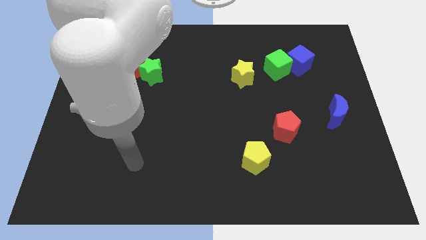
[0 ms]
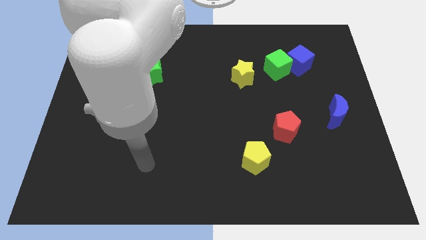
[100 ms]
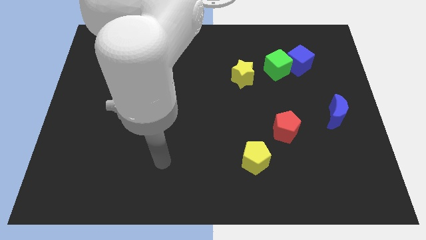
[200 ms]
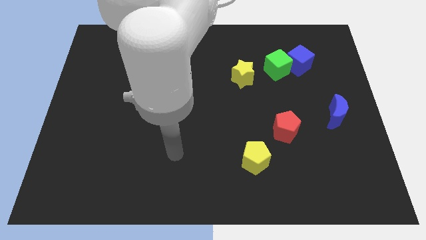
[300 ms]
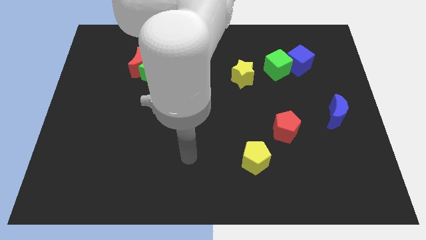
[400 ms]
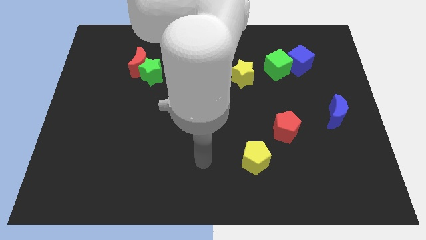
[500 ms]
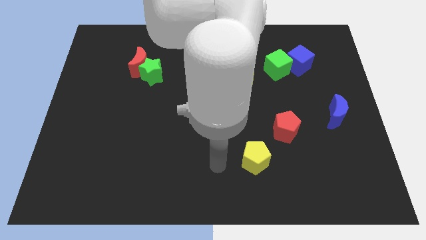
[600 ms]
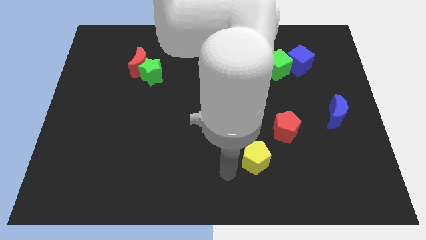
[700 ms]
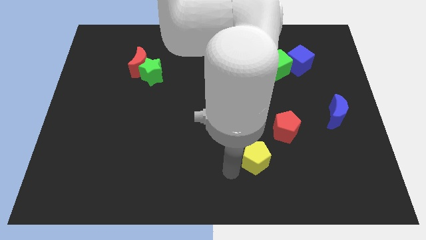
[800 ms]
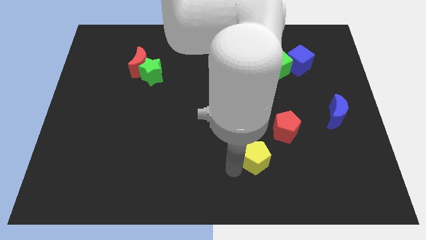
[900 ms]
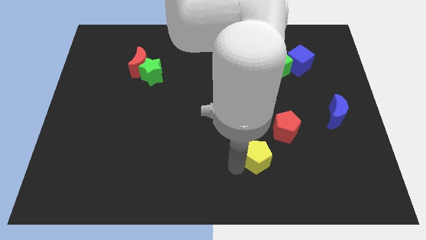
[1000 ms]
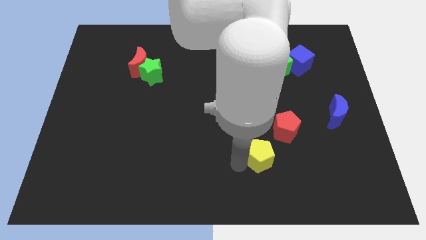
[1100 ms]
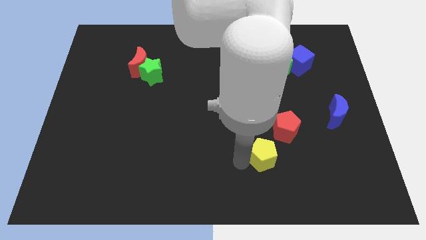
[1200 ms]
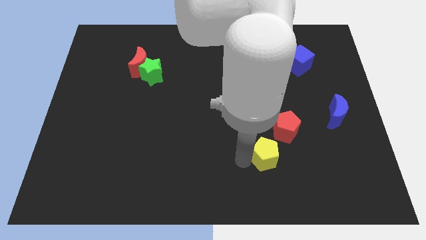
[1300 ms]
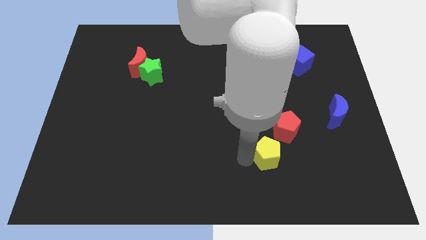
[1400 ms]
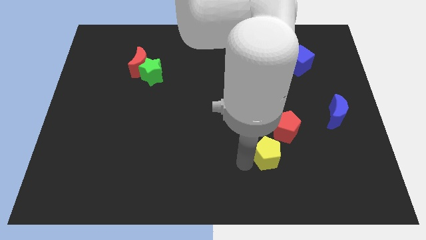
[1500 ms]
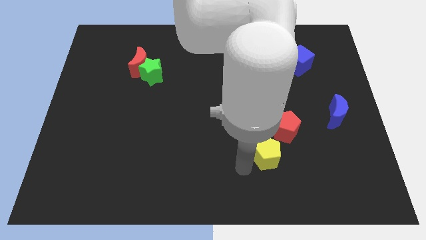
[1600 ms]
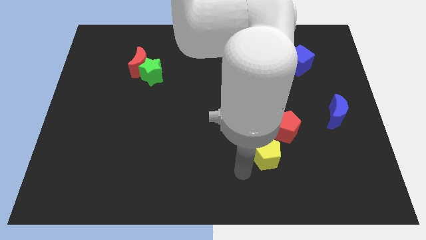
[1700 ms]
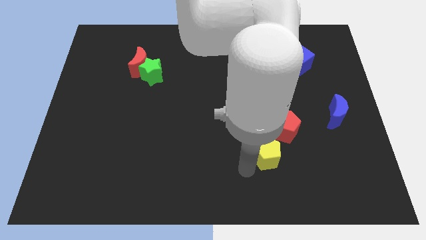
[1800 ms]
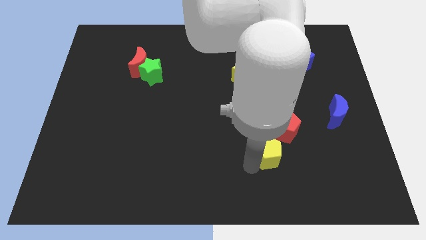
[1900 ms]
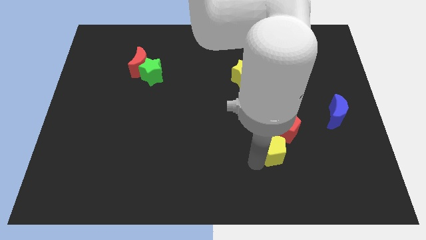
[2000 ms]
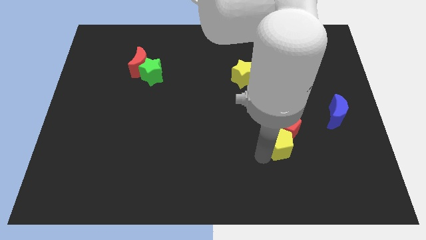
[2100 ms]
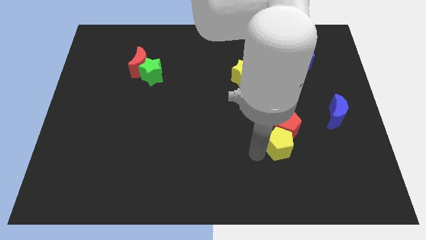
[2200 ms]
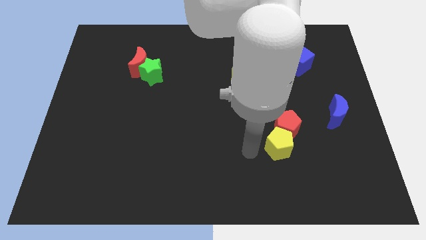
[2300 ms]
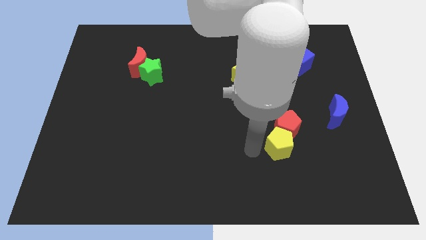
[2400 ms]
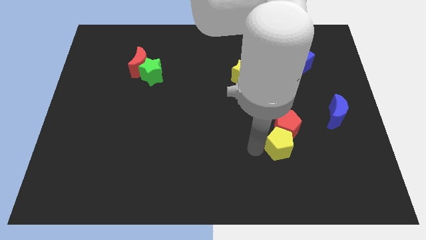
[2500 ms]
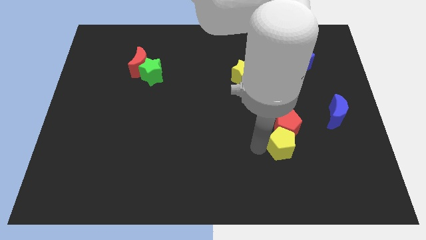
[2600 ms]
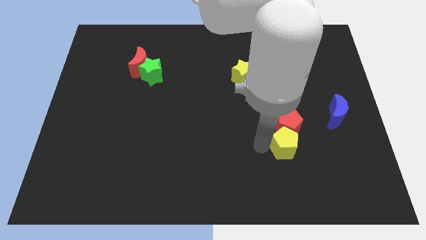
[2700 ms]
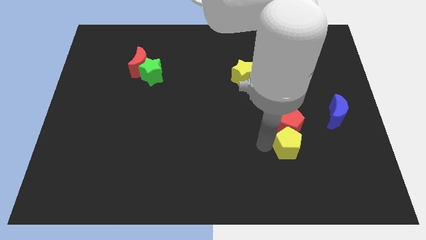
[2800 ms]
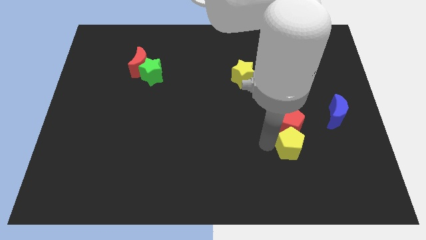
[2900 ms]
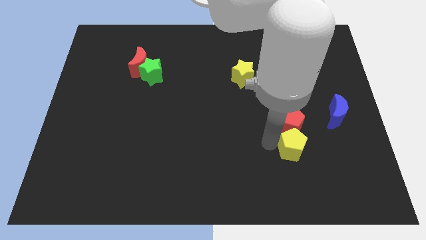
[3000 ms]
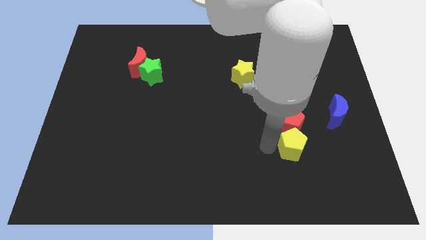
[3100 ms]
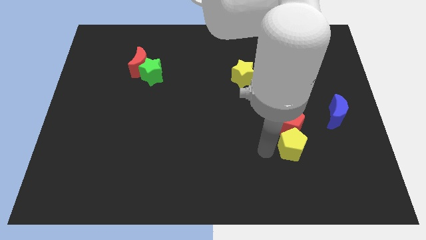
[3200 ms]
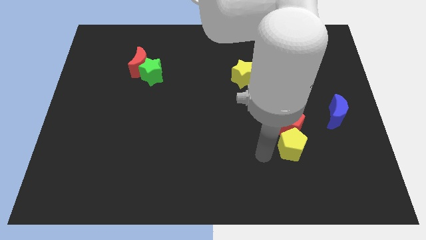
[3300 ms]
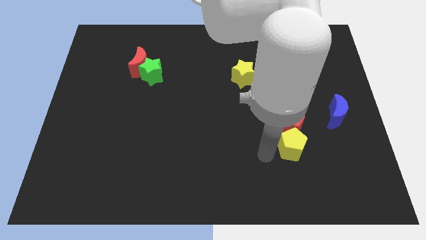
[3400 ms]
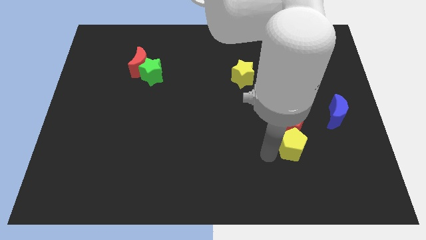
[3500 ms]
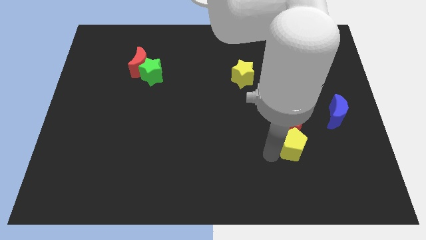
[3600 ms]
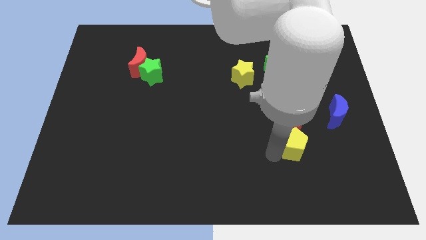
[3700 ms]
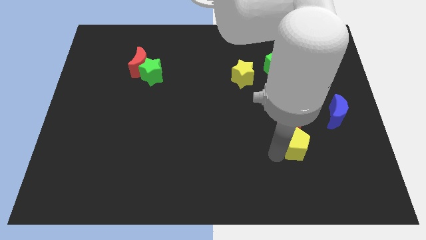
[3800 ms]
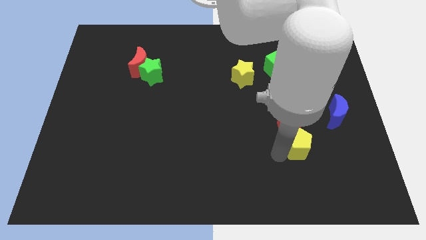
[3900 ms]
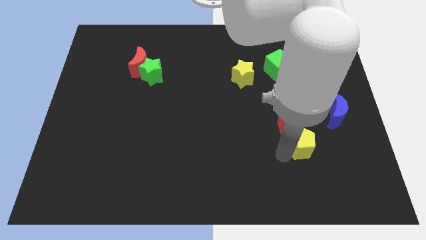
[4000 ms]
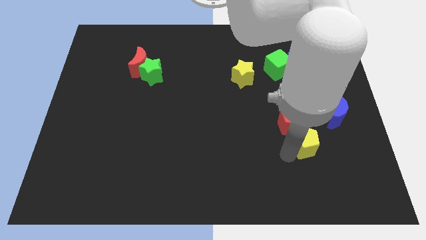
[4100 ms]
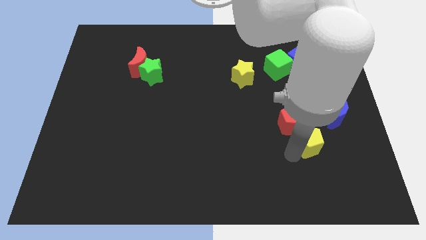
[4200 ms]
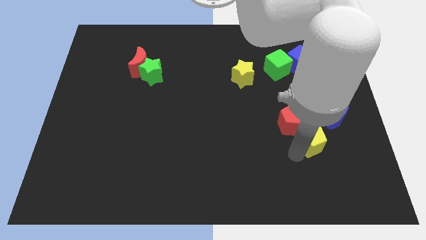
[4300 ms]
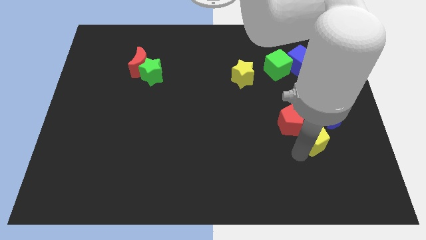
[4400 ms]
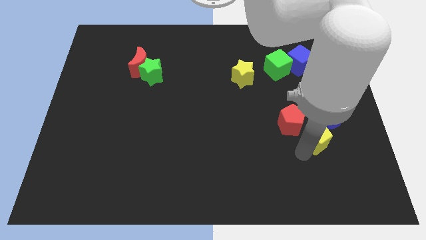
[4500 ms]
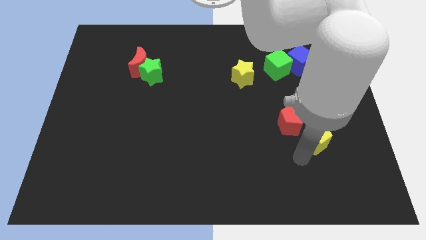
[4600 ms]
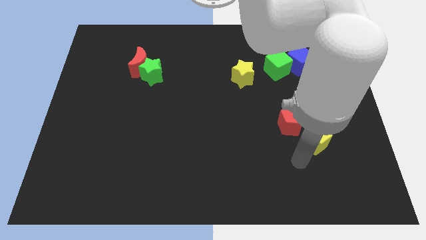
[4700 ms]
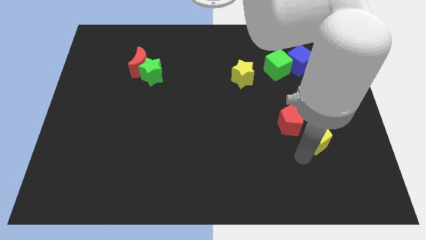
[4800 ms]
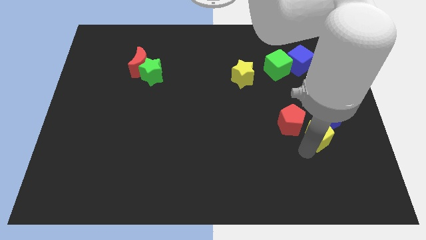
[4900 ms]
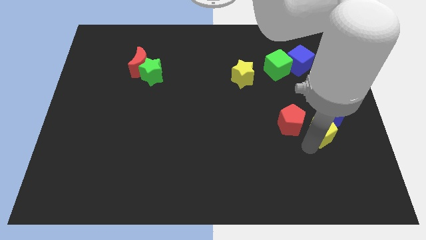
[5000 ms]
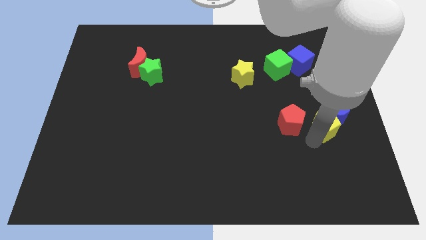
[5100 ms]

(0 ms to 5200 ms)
slide the yellow pentagon next to the blue moon

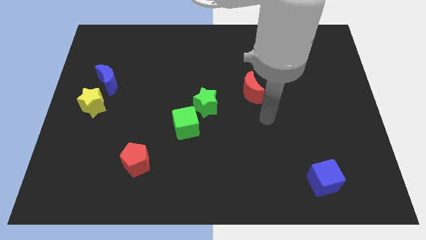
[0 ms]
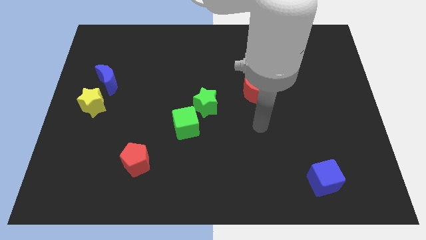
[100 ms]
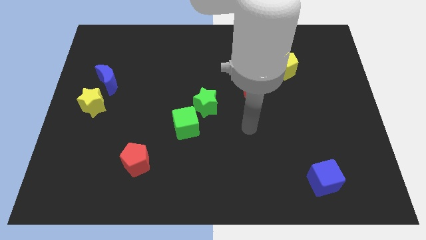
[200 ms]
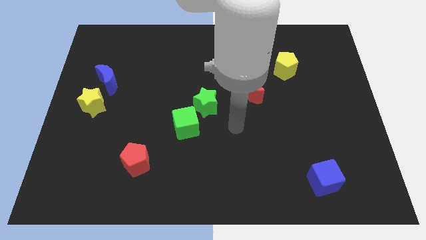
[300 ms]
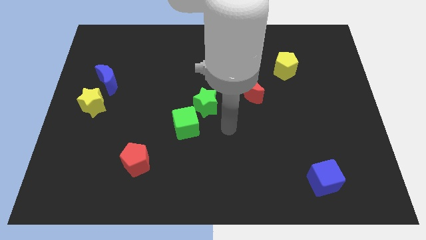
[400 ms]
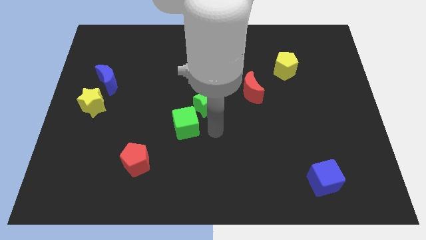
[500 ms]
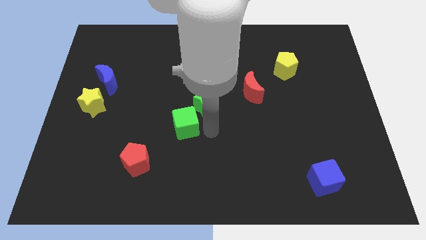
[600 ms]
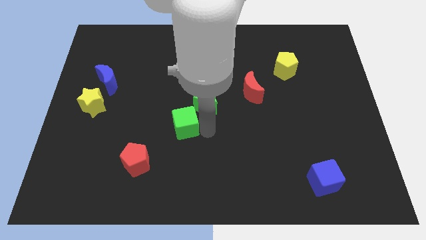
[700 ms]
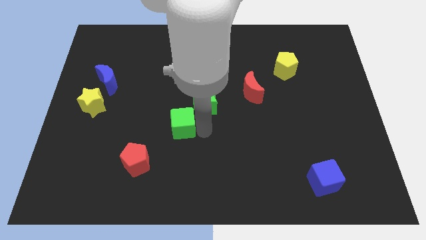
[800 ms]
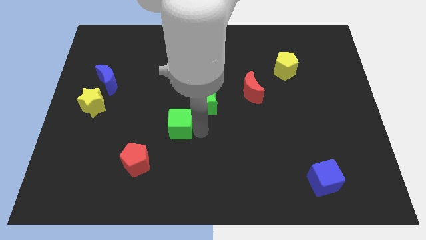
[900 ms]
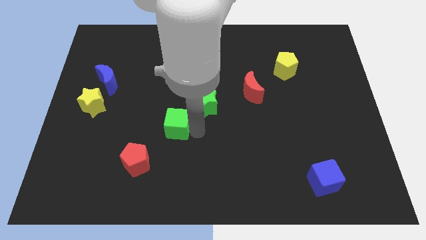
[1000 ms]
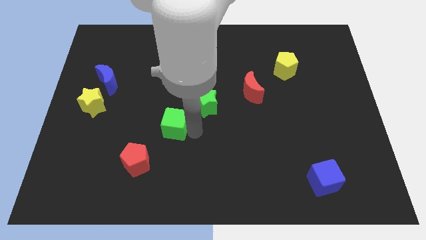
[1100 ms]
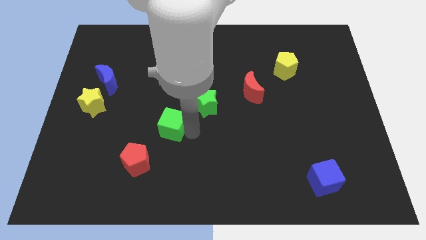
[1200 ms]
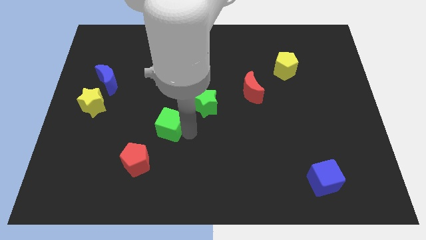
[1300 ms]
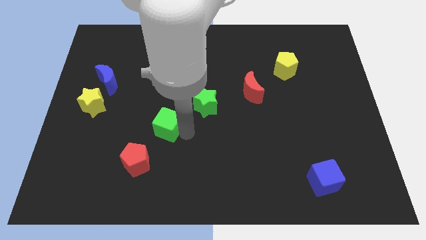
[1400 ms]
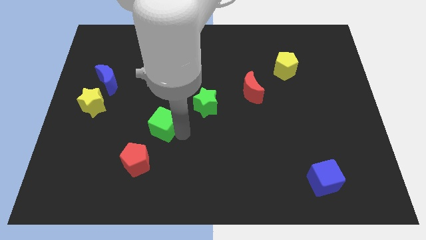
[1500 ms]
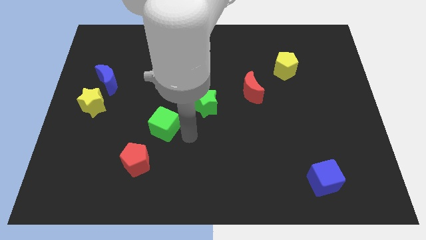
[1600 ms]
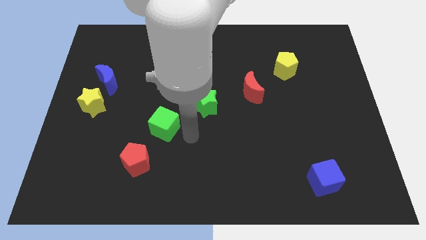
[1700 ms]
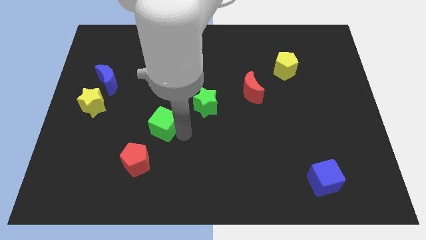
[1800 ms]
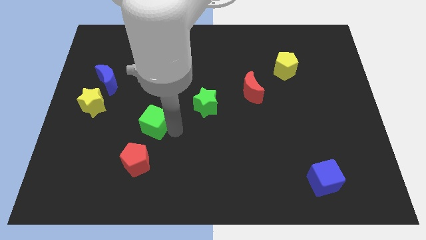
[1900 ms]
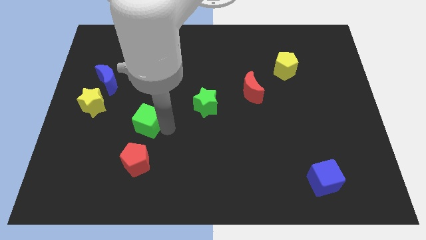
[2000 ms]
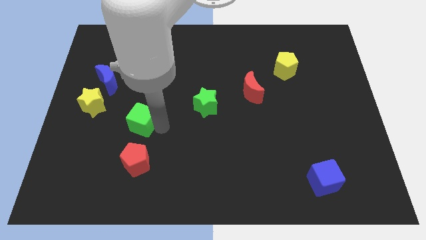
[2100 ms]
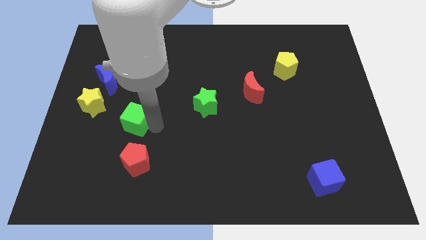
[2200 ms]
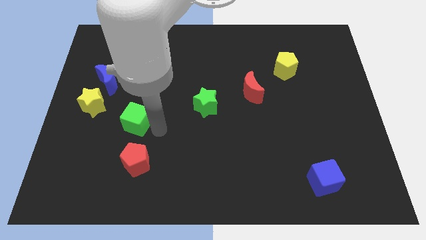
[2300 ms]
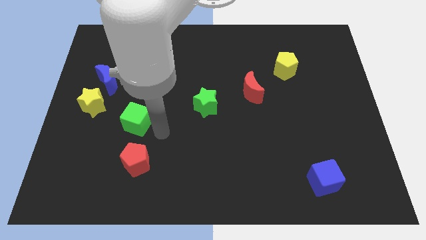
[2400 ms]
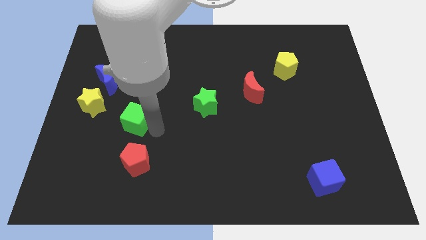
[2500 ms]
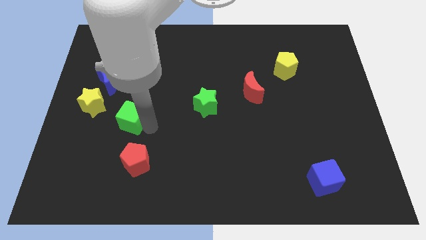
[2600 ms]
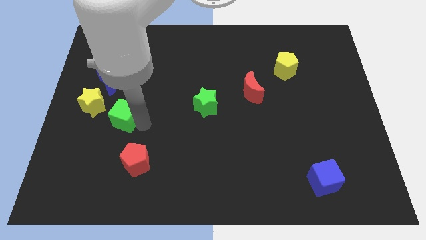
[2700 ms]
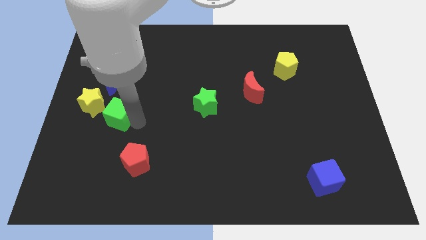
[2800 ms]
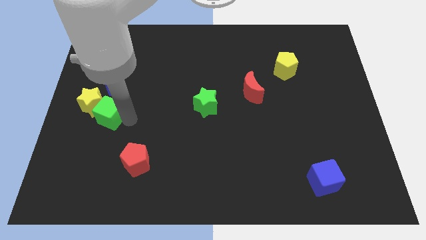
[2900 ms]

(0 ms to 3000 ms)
put the green cube towards the yellow star
